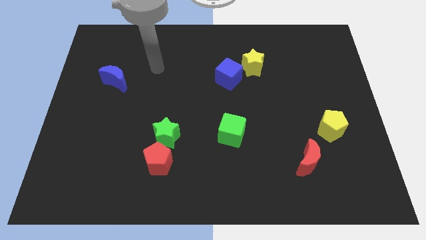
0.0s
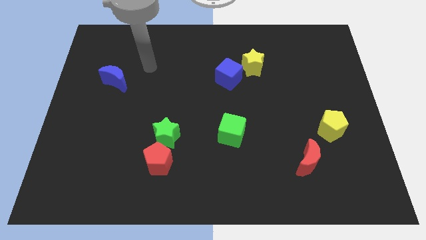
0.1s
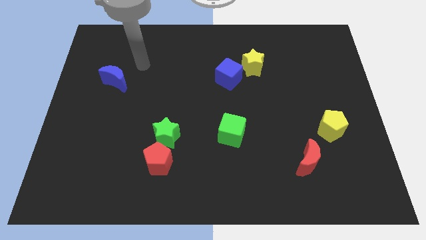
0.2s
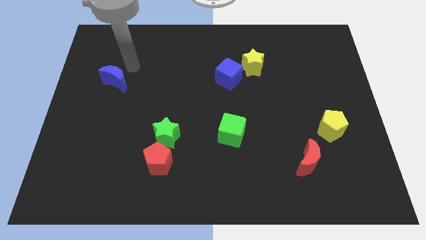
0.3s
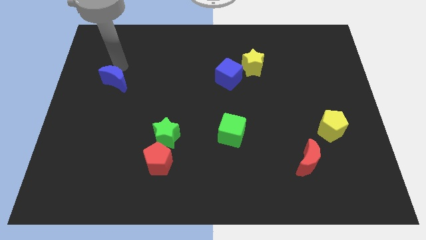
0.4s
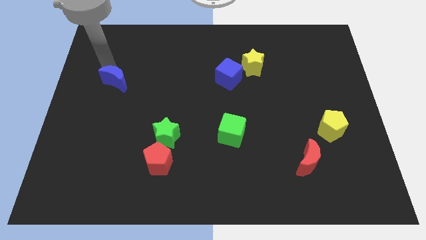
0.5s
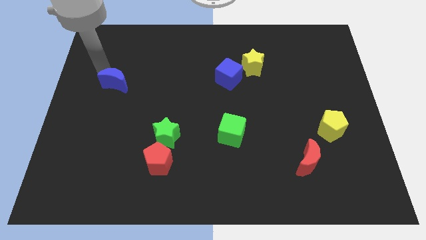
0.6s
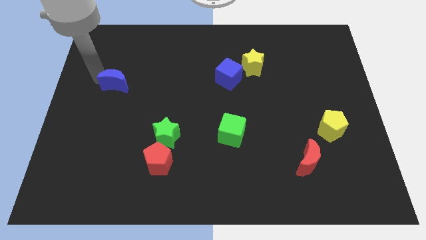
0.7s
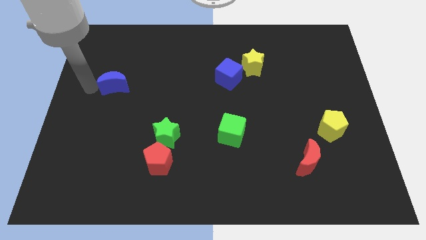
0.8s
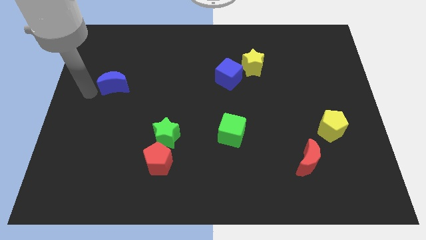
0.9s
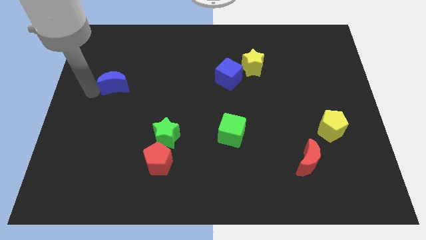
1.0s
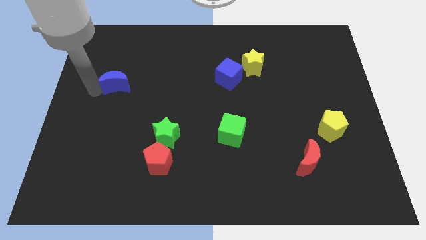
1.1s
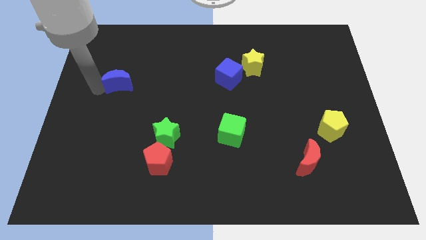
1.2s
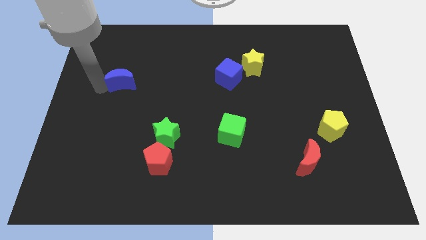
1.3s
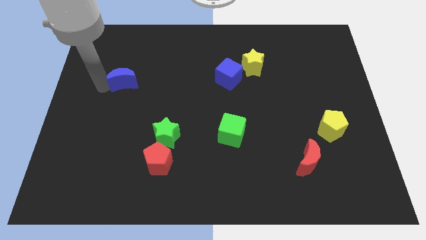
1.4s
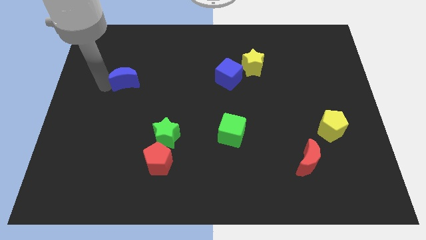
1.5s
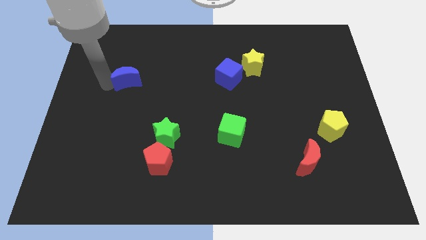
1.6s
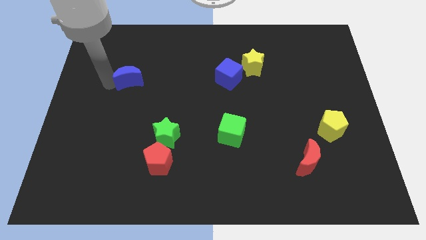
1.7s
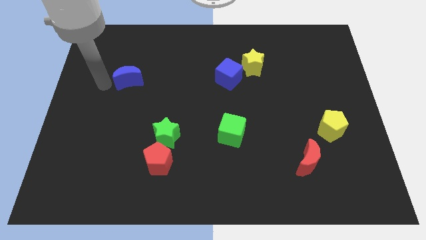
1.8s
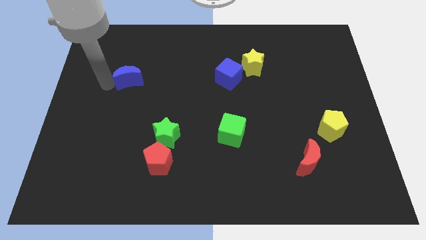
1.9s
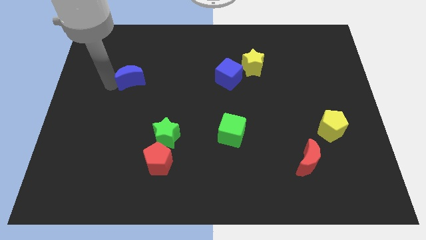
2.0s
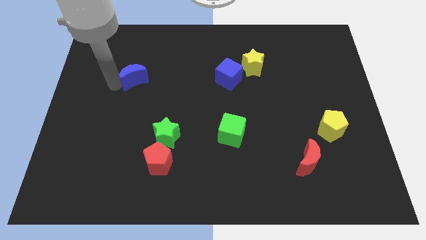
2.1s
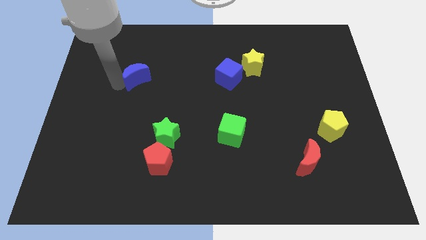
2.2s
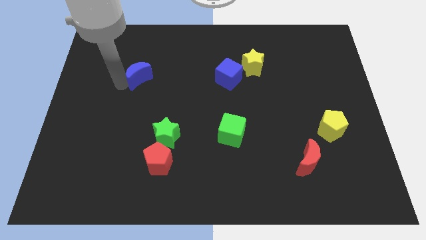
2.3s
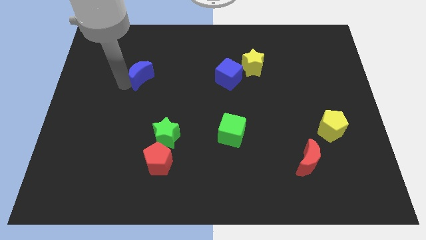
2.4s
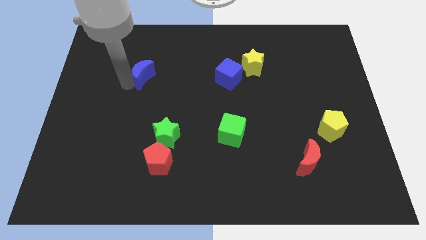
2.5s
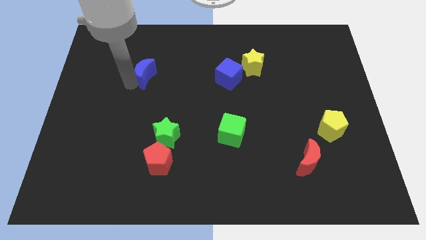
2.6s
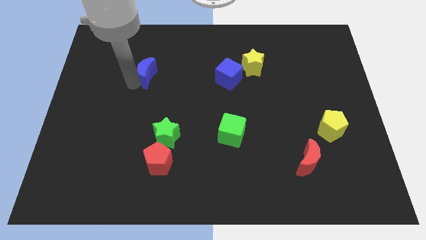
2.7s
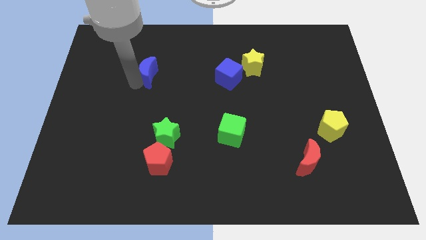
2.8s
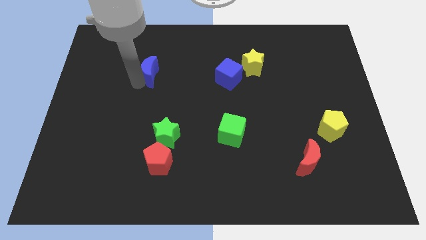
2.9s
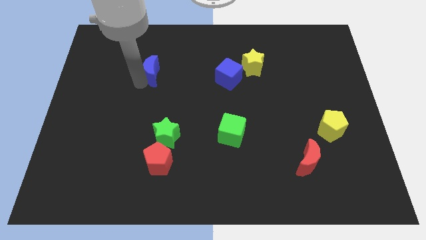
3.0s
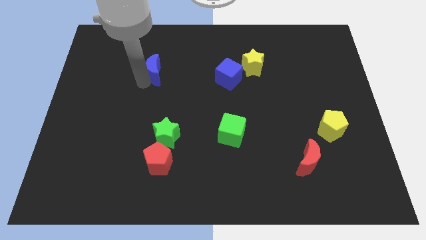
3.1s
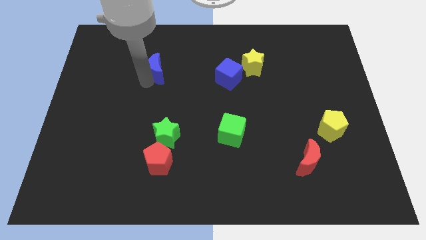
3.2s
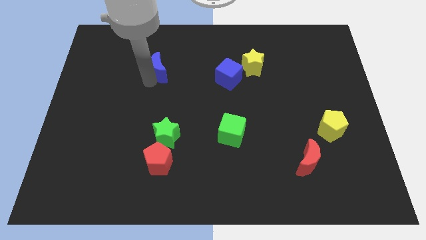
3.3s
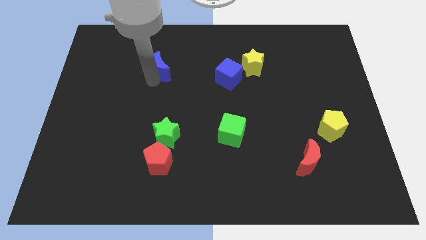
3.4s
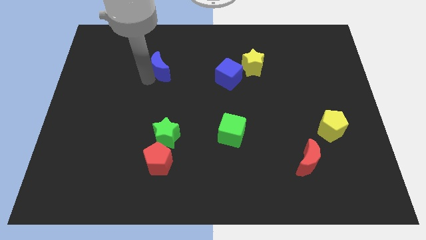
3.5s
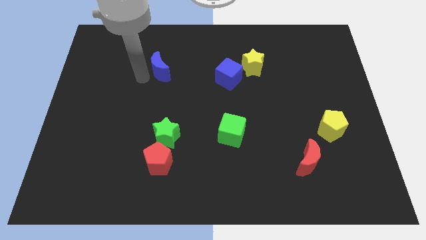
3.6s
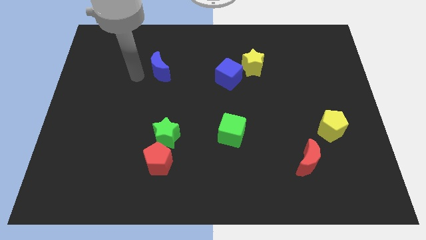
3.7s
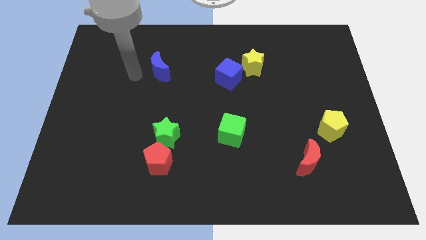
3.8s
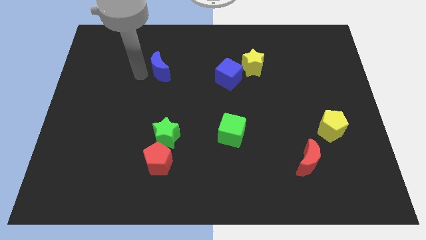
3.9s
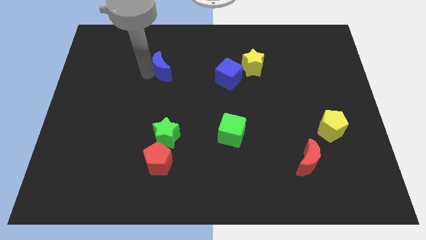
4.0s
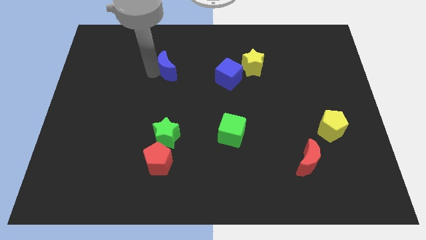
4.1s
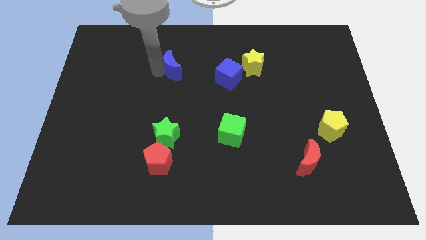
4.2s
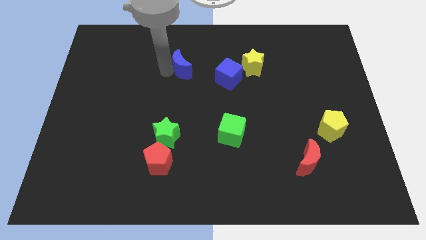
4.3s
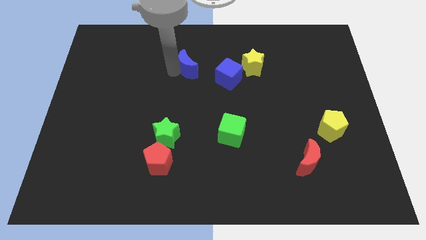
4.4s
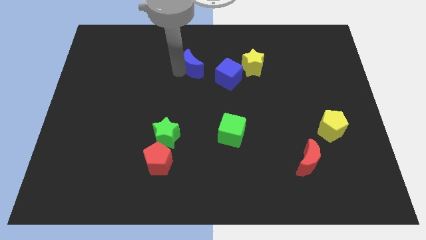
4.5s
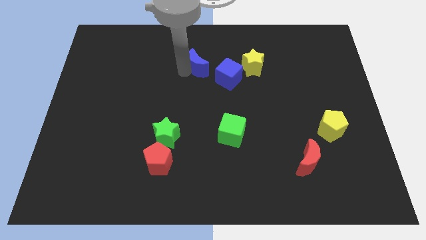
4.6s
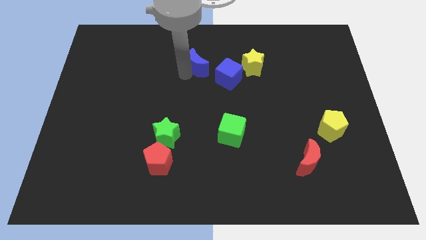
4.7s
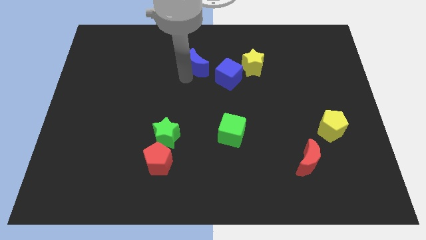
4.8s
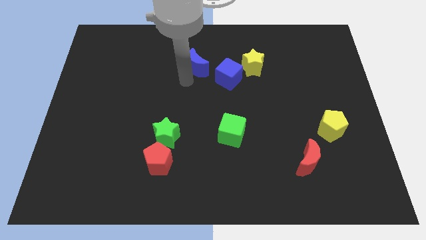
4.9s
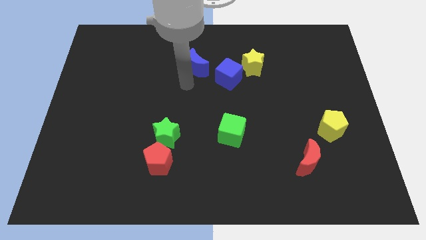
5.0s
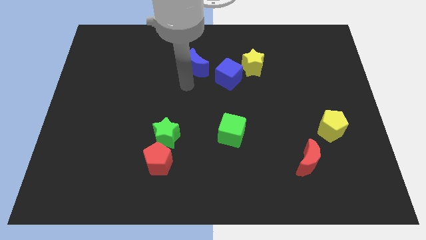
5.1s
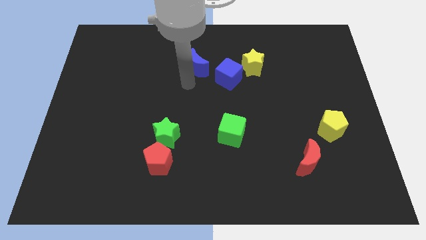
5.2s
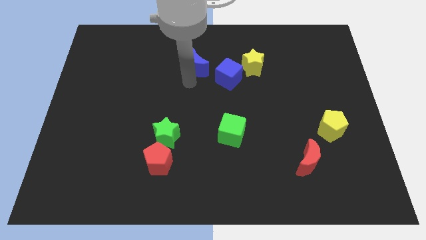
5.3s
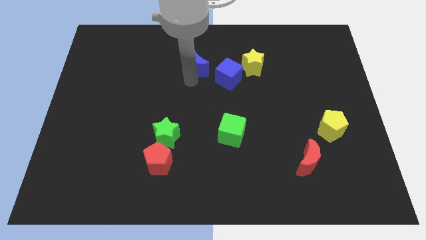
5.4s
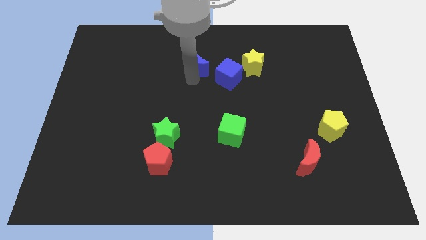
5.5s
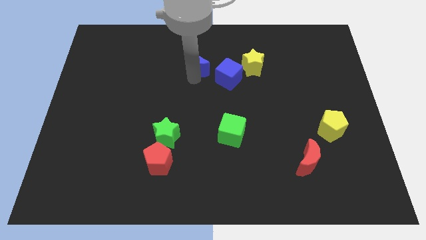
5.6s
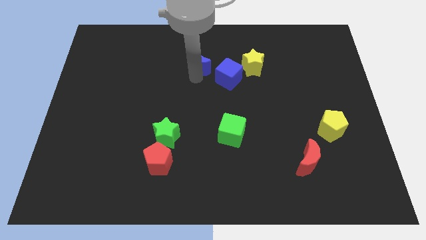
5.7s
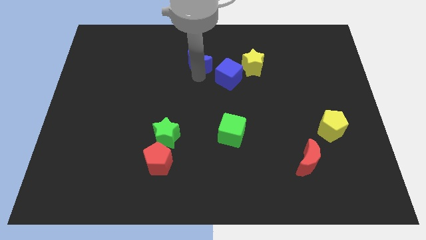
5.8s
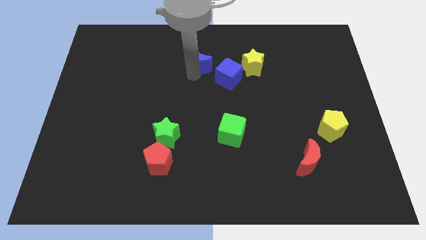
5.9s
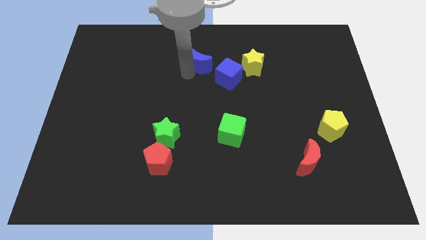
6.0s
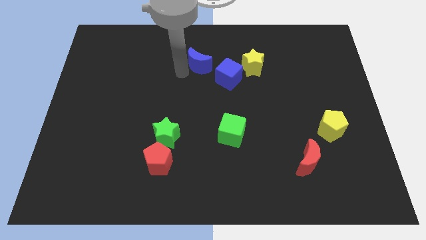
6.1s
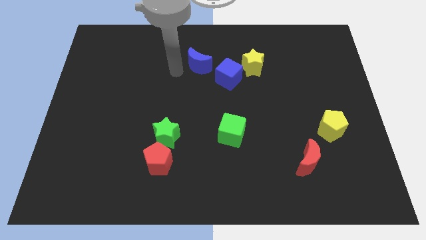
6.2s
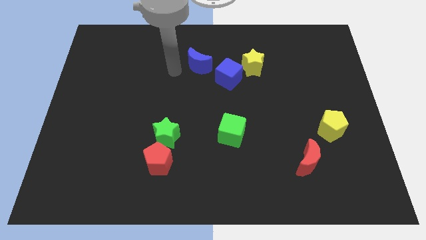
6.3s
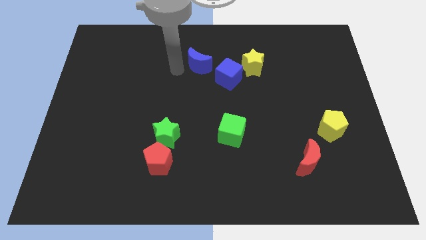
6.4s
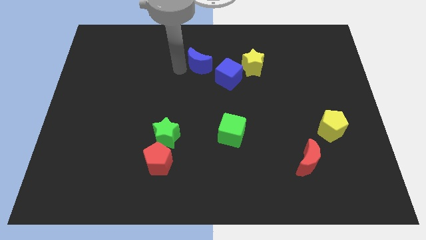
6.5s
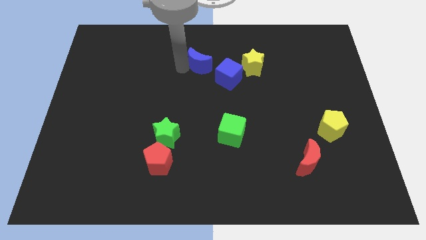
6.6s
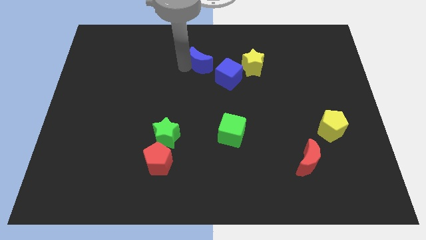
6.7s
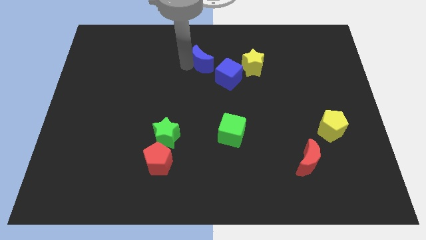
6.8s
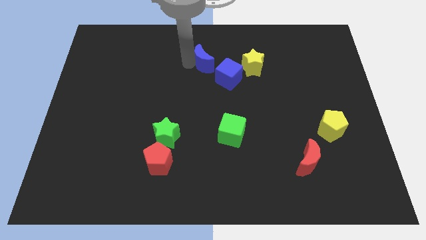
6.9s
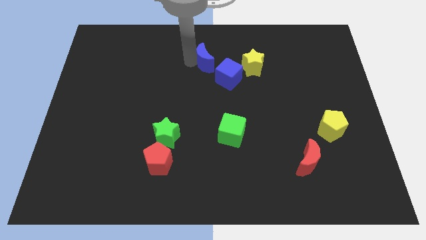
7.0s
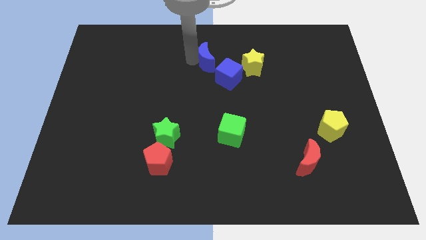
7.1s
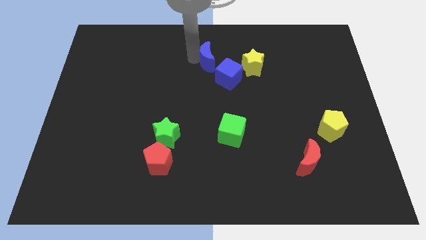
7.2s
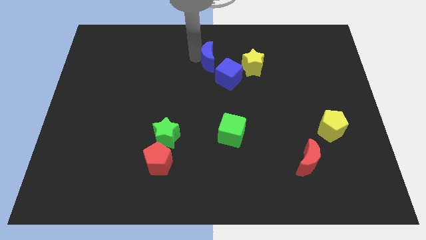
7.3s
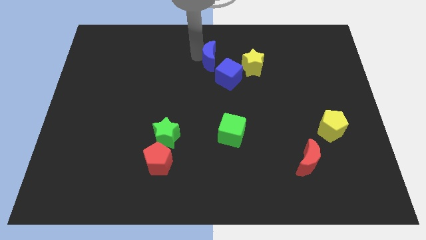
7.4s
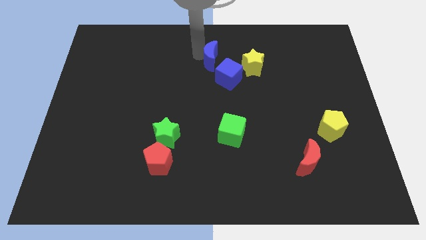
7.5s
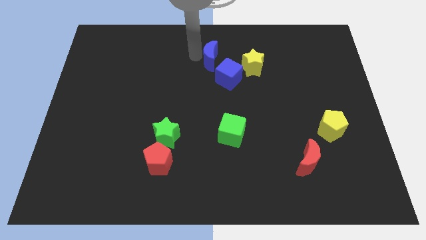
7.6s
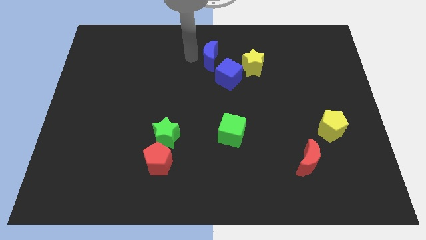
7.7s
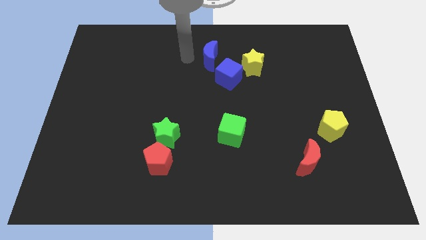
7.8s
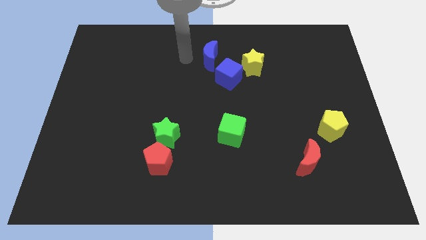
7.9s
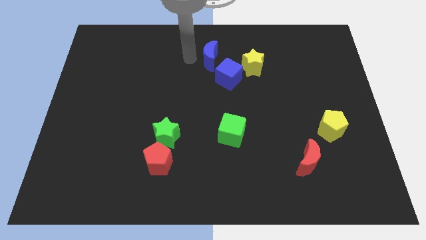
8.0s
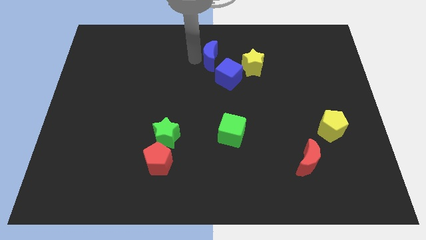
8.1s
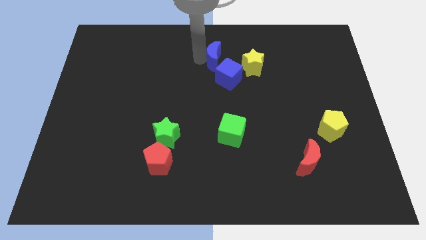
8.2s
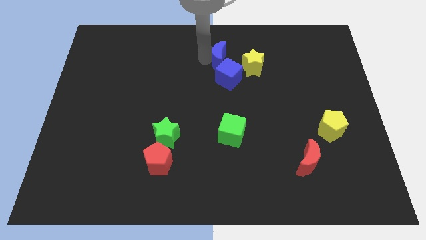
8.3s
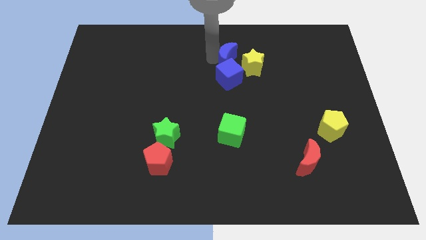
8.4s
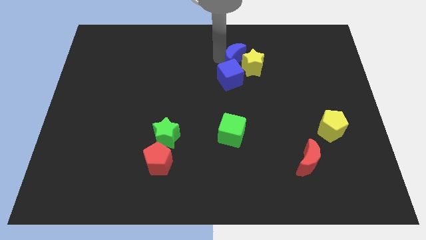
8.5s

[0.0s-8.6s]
slide the blue moon next to the yellow star
